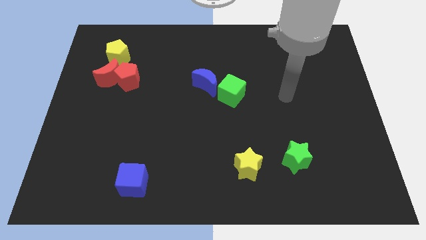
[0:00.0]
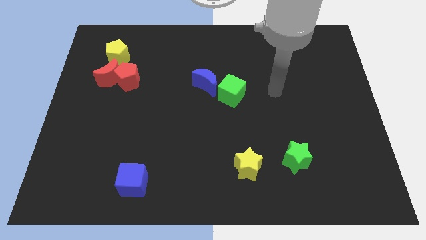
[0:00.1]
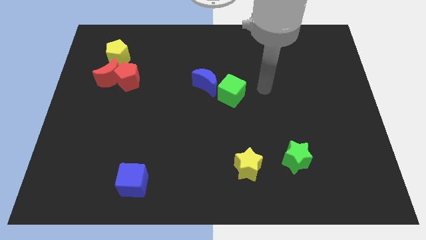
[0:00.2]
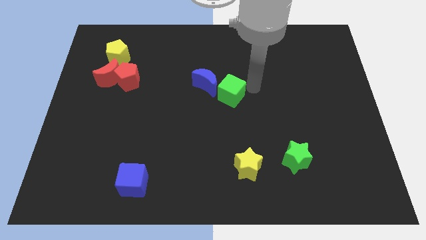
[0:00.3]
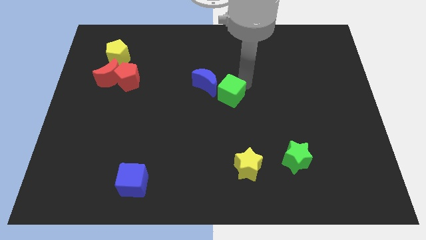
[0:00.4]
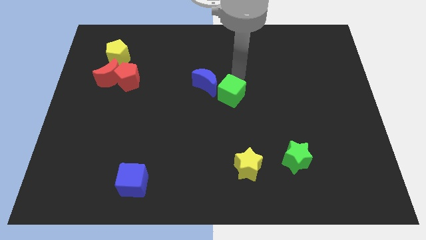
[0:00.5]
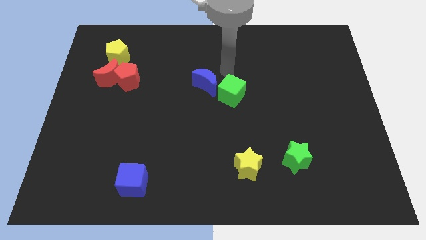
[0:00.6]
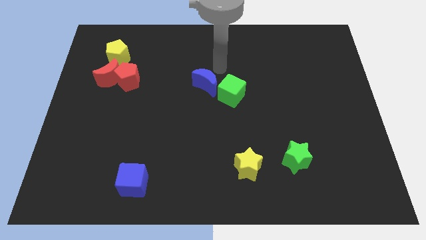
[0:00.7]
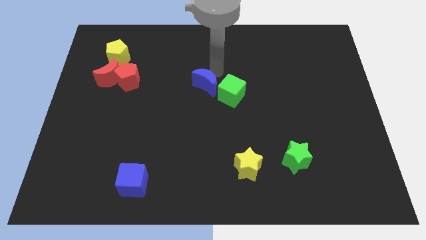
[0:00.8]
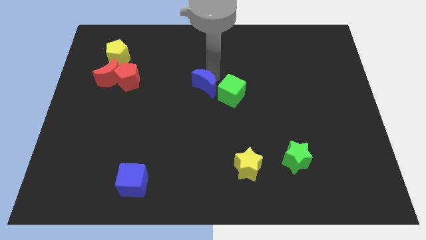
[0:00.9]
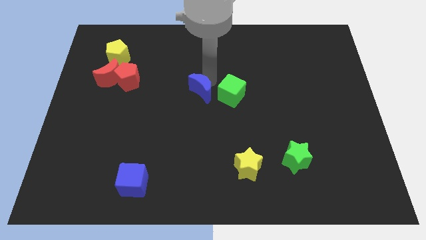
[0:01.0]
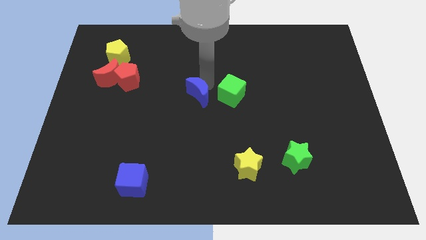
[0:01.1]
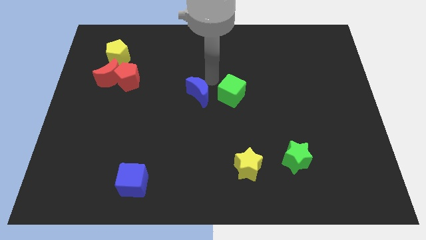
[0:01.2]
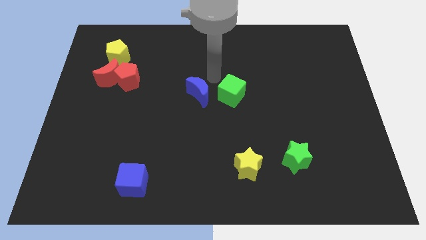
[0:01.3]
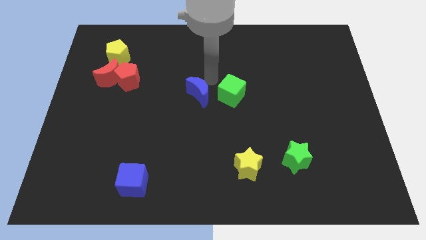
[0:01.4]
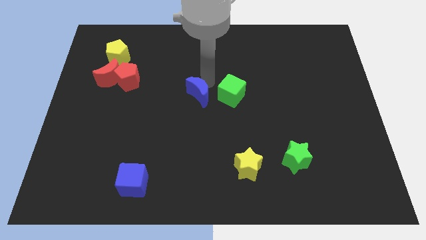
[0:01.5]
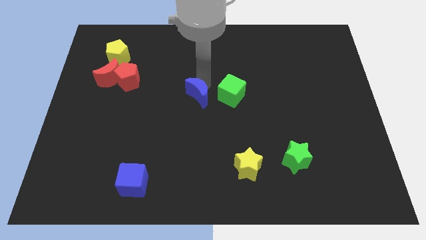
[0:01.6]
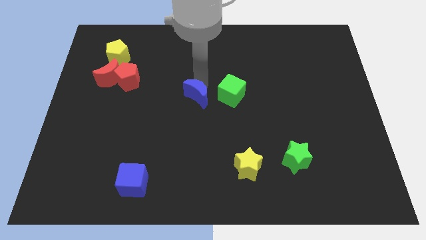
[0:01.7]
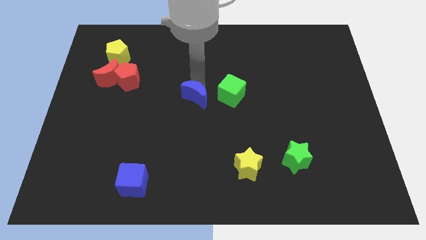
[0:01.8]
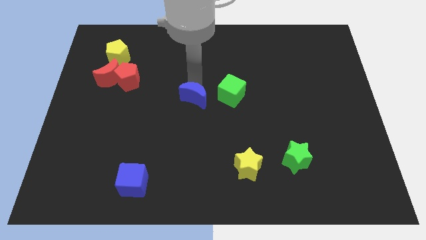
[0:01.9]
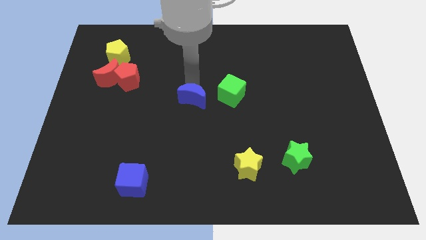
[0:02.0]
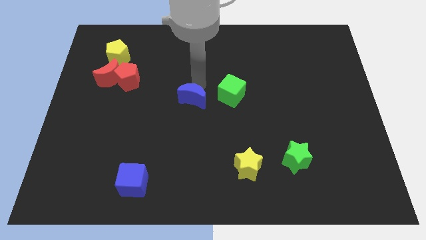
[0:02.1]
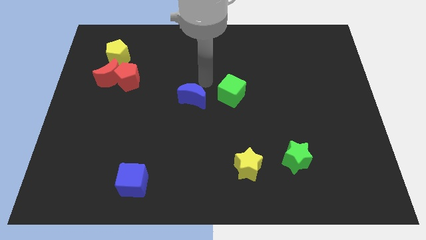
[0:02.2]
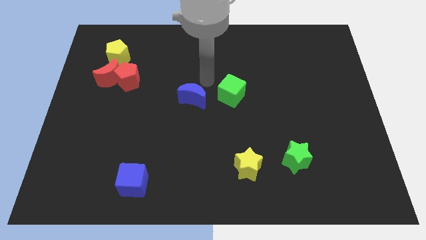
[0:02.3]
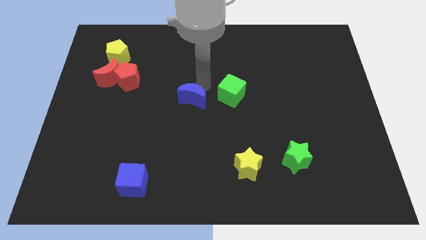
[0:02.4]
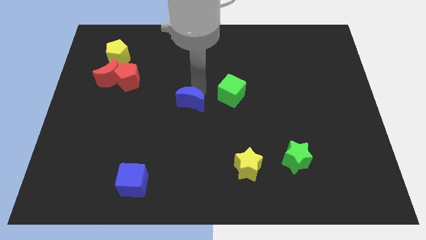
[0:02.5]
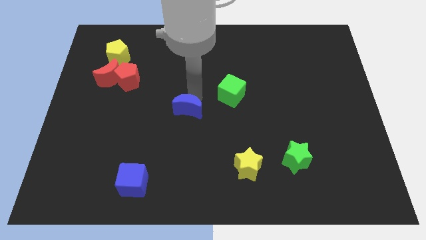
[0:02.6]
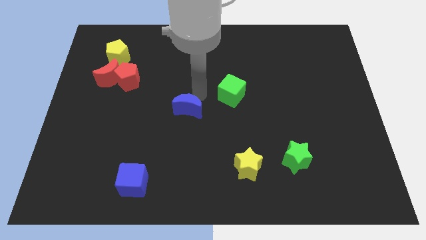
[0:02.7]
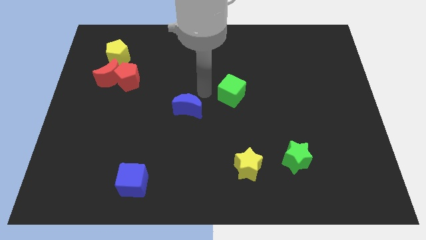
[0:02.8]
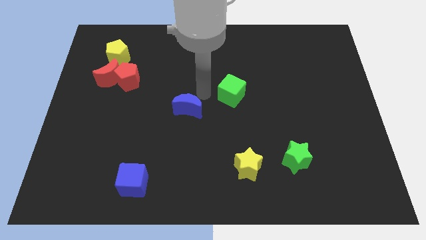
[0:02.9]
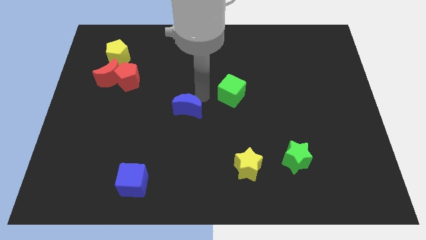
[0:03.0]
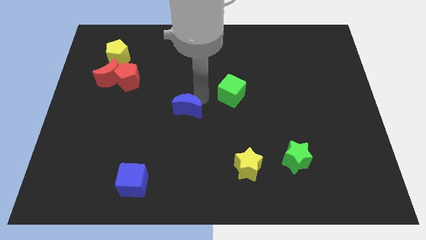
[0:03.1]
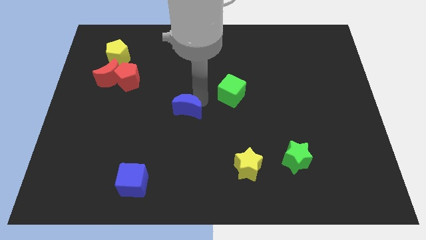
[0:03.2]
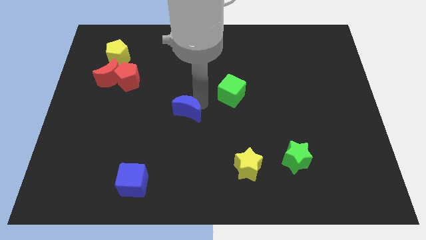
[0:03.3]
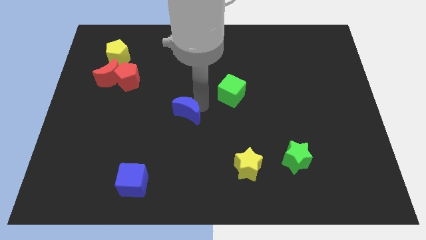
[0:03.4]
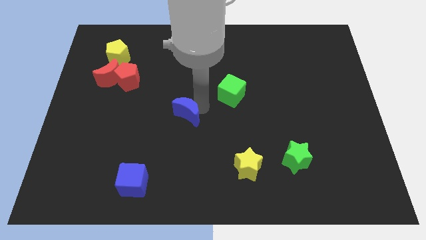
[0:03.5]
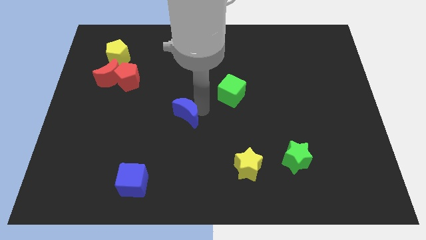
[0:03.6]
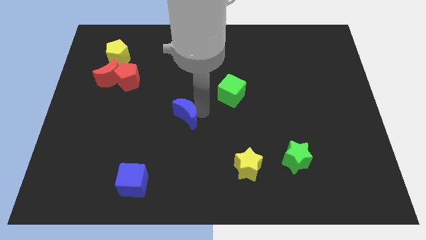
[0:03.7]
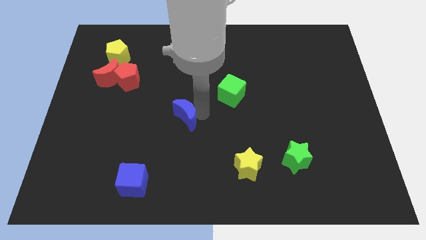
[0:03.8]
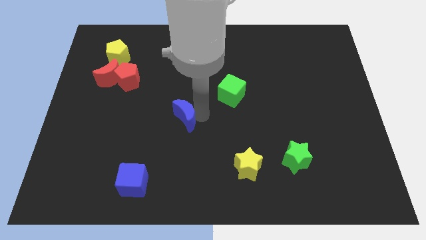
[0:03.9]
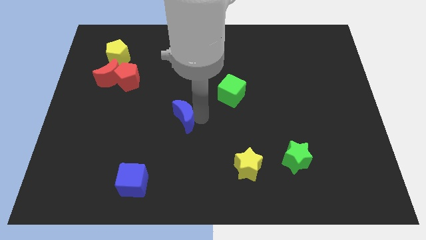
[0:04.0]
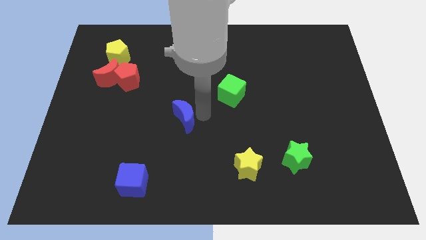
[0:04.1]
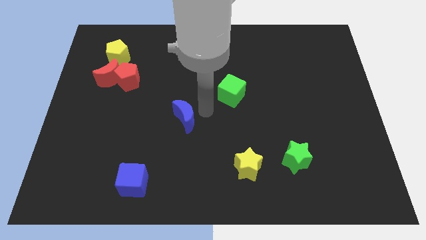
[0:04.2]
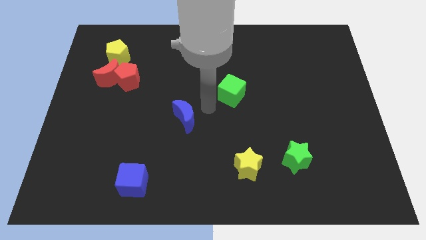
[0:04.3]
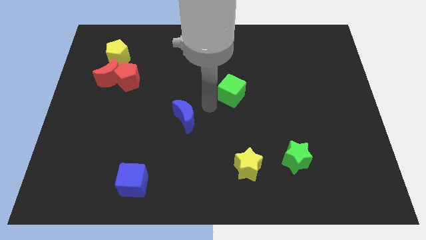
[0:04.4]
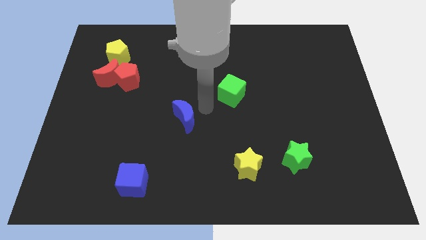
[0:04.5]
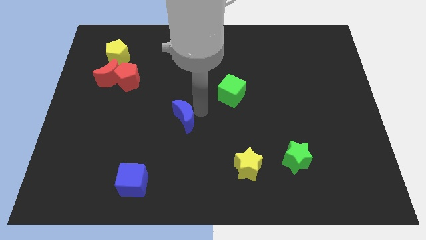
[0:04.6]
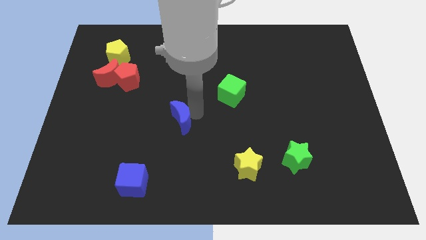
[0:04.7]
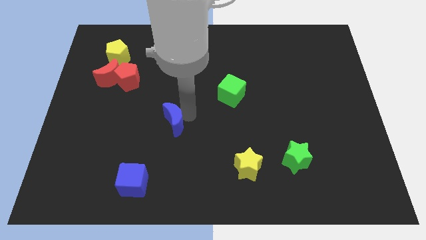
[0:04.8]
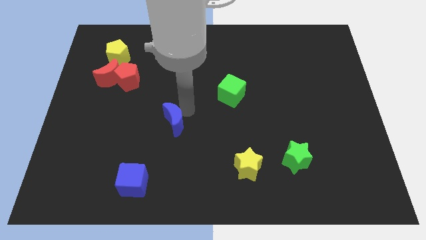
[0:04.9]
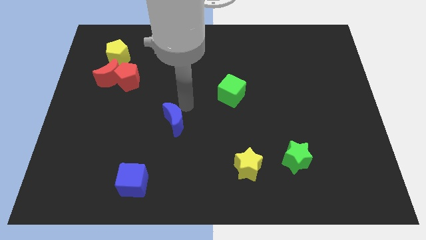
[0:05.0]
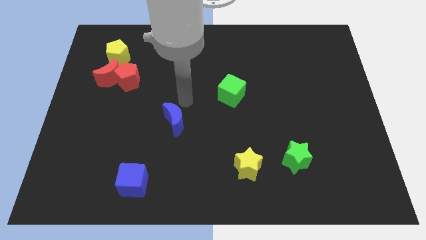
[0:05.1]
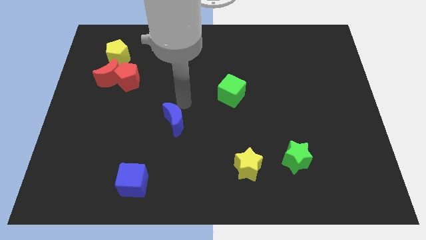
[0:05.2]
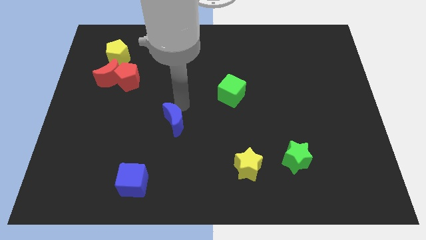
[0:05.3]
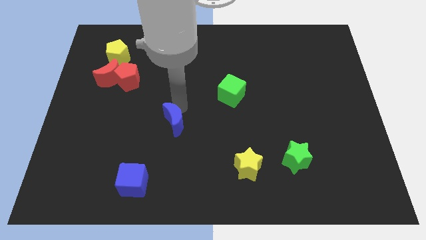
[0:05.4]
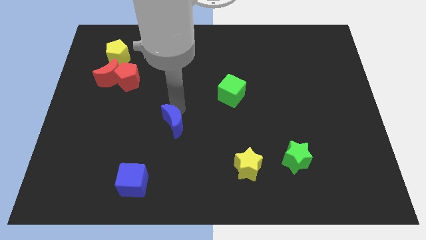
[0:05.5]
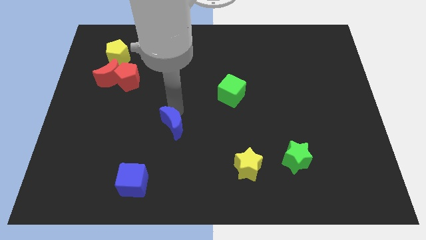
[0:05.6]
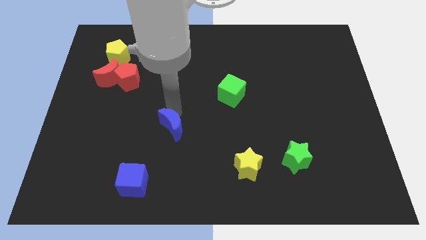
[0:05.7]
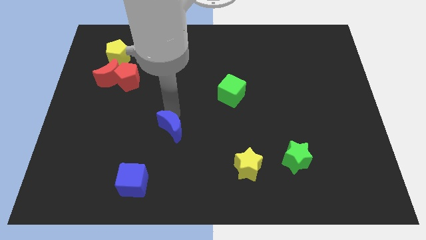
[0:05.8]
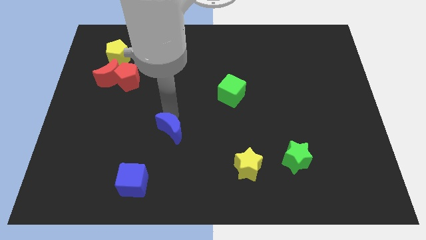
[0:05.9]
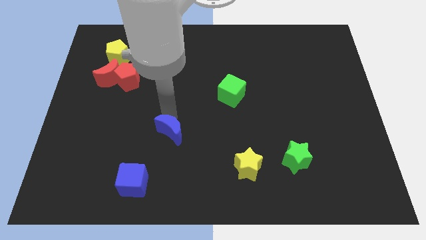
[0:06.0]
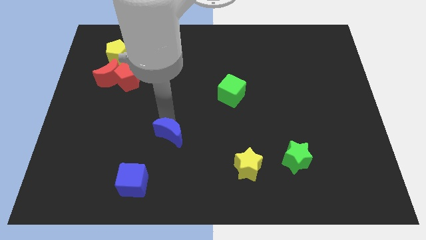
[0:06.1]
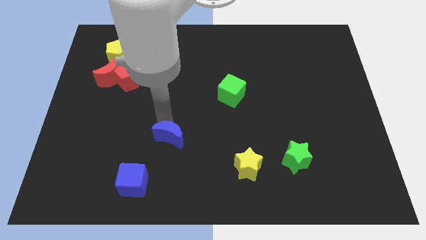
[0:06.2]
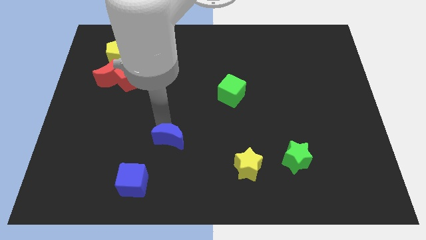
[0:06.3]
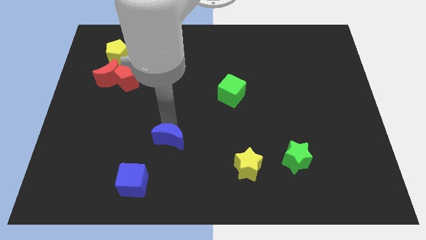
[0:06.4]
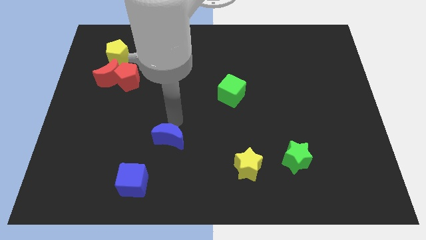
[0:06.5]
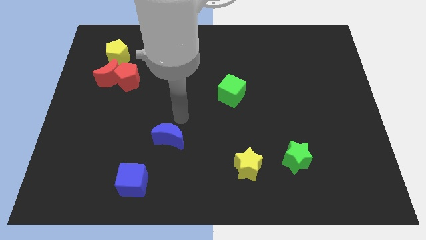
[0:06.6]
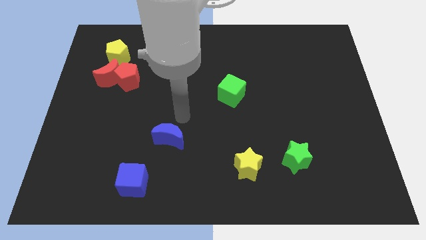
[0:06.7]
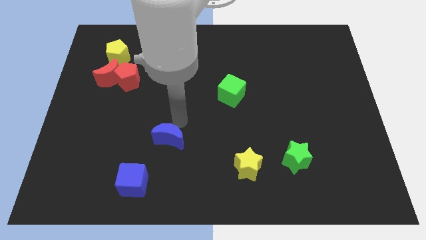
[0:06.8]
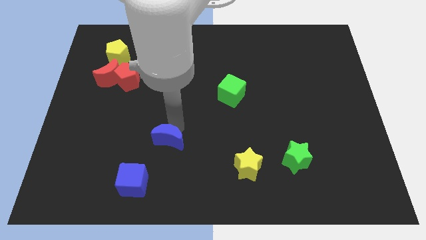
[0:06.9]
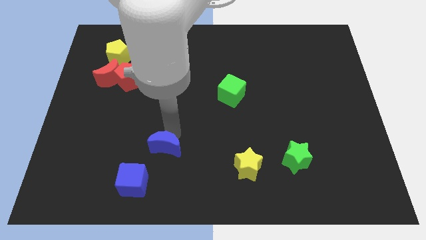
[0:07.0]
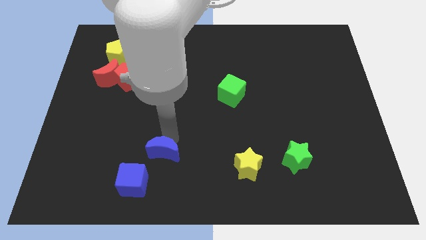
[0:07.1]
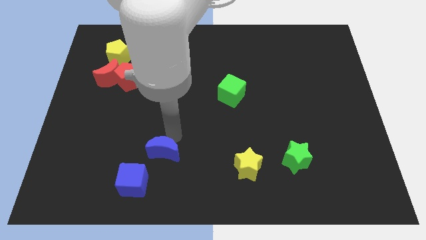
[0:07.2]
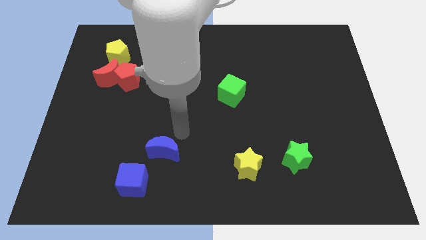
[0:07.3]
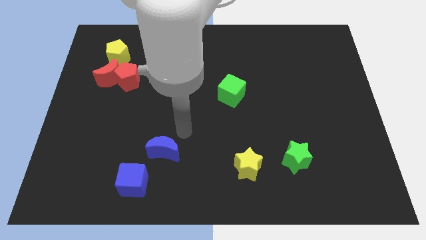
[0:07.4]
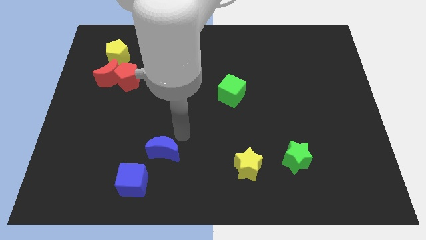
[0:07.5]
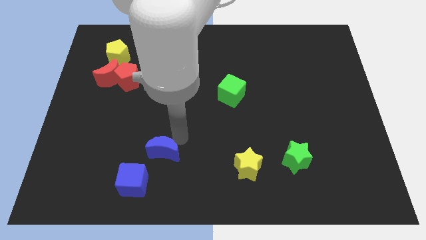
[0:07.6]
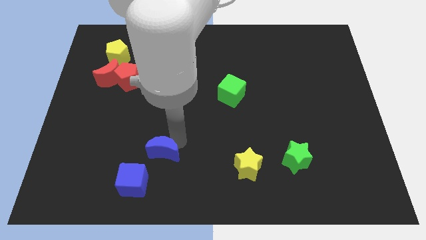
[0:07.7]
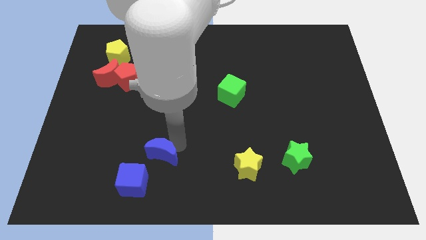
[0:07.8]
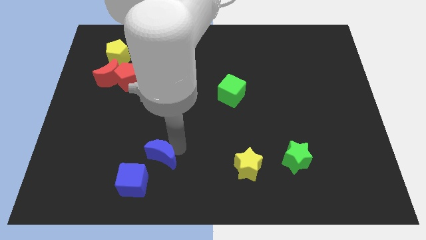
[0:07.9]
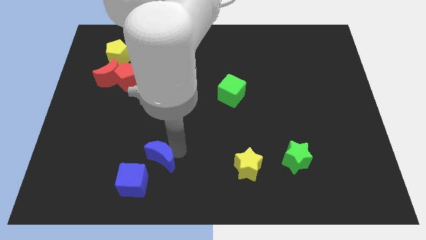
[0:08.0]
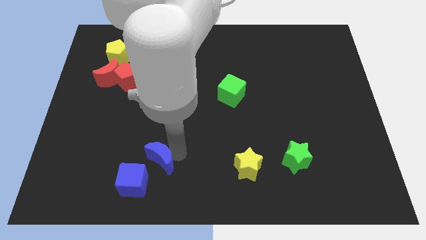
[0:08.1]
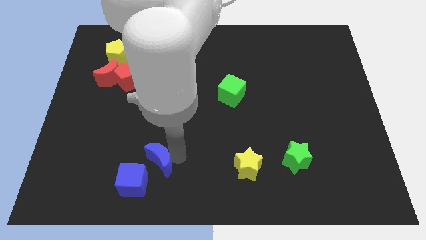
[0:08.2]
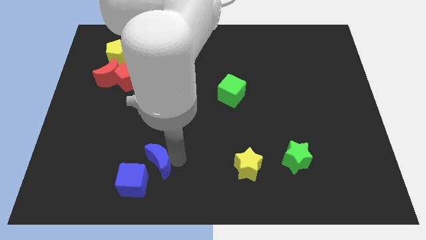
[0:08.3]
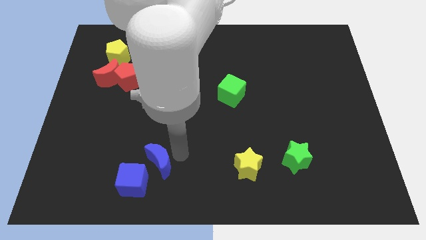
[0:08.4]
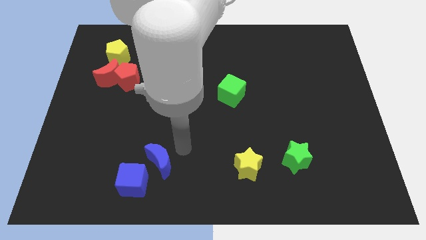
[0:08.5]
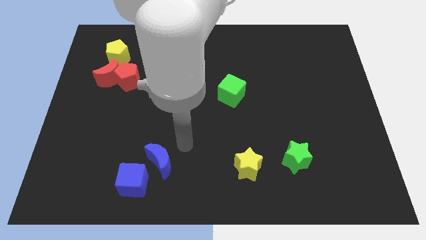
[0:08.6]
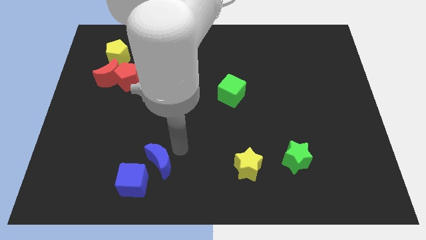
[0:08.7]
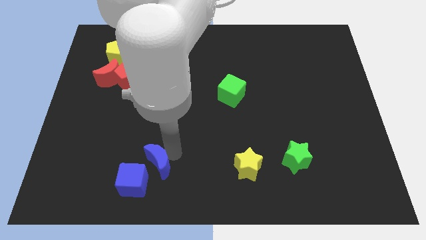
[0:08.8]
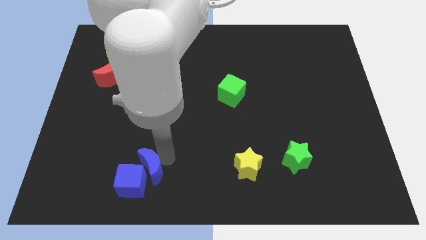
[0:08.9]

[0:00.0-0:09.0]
push the blue moon close to the blue cube
